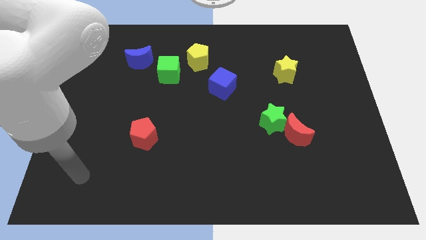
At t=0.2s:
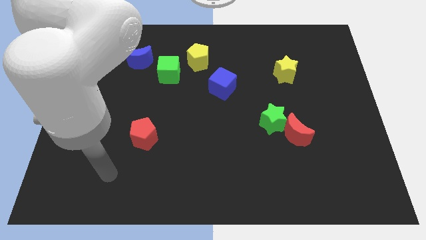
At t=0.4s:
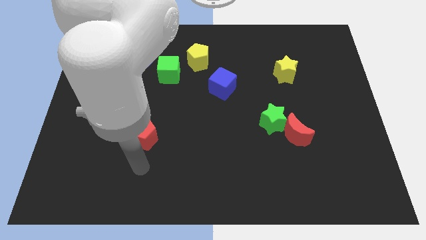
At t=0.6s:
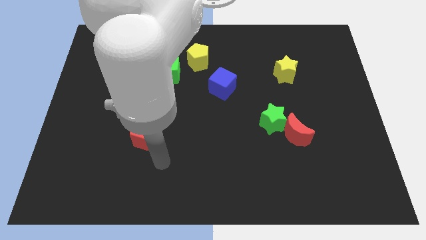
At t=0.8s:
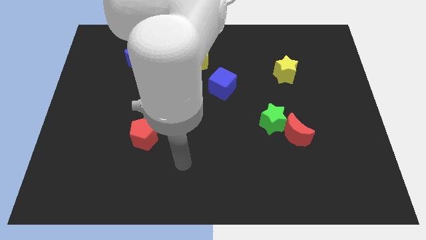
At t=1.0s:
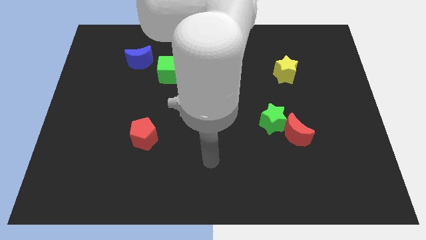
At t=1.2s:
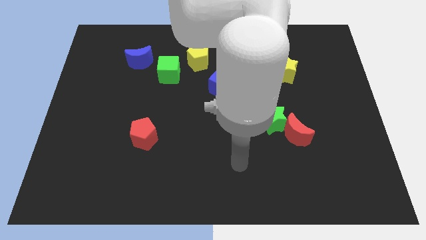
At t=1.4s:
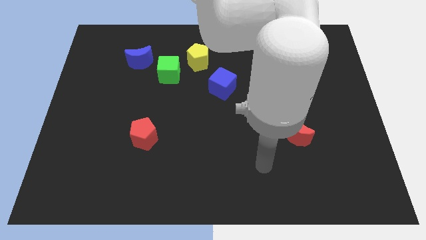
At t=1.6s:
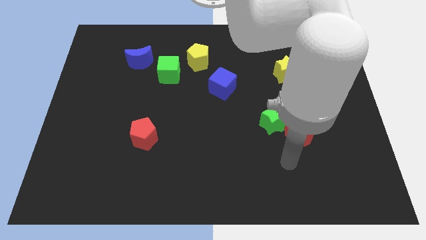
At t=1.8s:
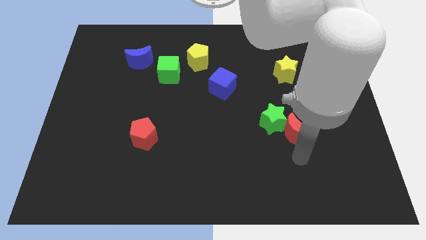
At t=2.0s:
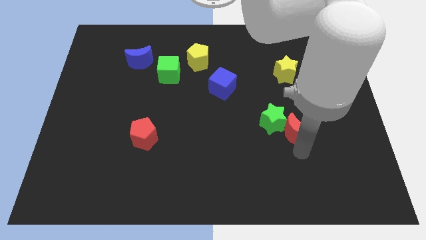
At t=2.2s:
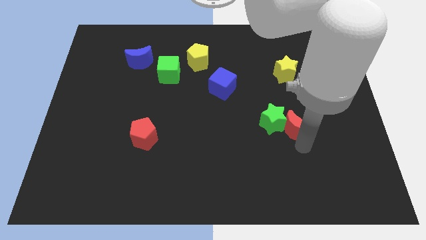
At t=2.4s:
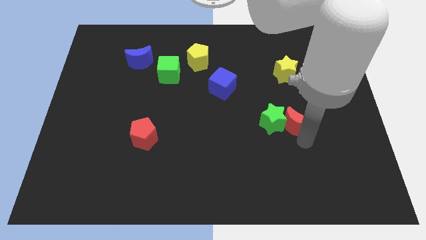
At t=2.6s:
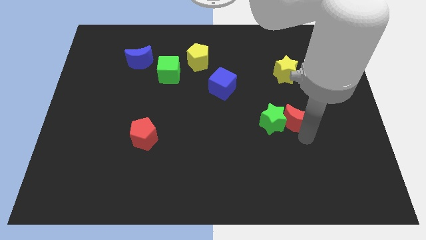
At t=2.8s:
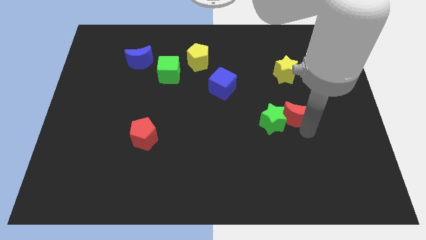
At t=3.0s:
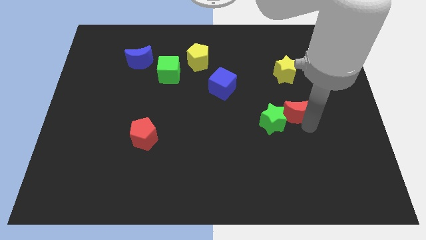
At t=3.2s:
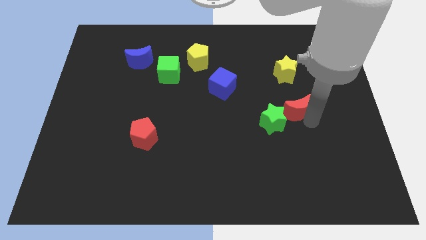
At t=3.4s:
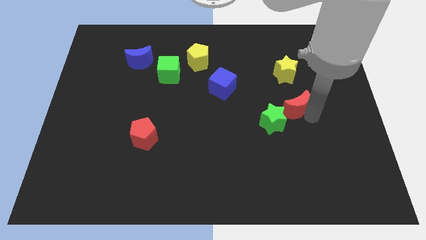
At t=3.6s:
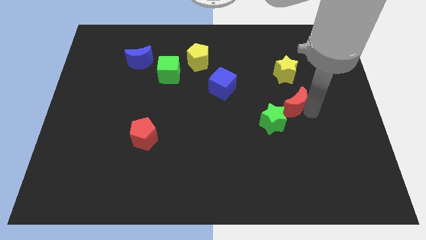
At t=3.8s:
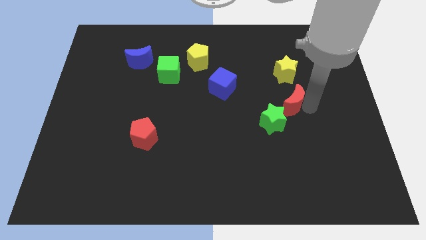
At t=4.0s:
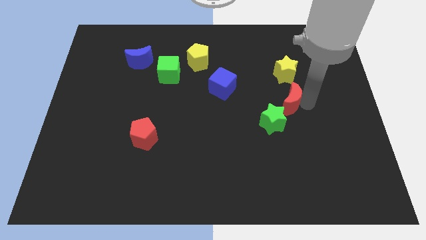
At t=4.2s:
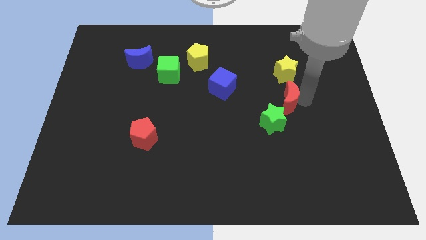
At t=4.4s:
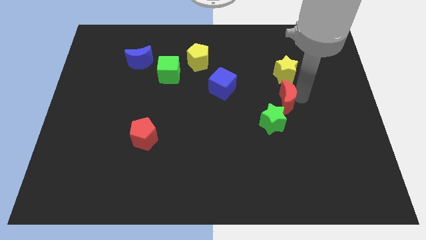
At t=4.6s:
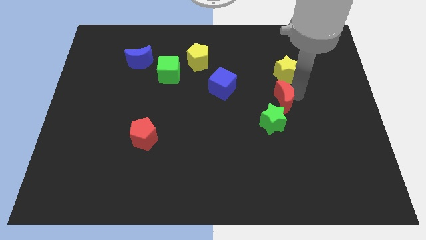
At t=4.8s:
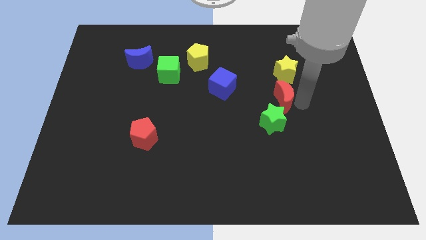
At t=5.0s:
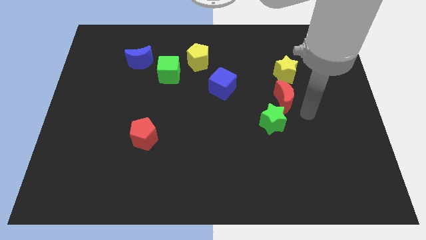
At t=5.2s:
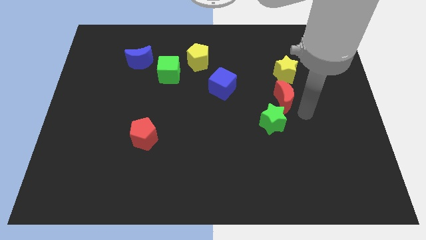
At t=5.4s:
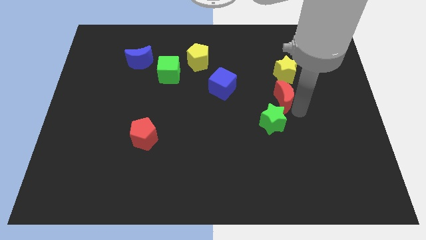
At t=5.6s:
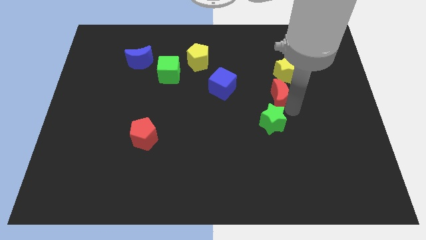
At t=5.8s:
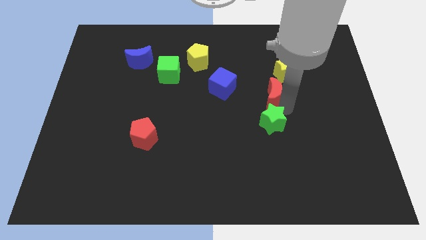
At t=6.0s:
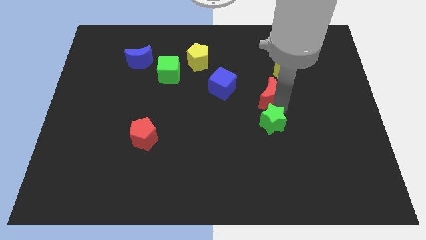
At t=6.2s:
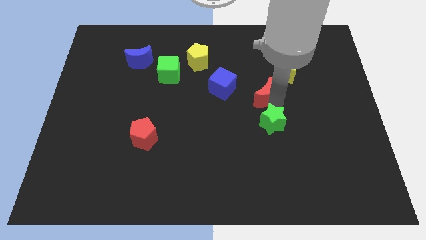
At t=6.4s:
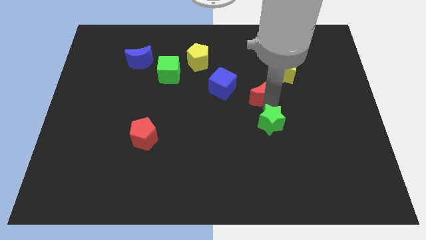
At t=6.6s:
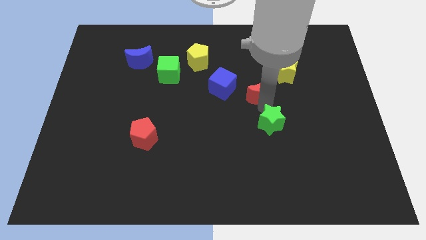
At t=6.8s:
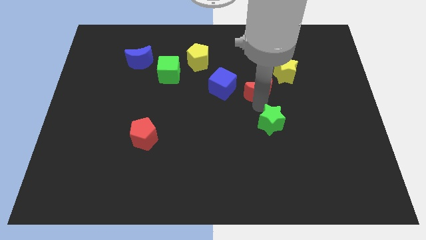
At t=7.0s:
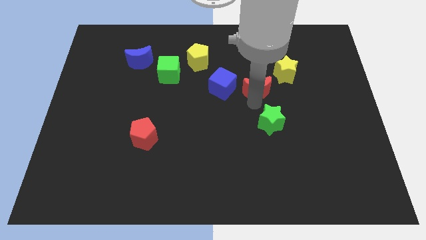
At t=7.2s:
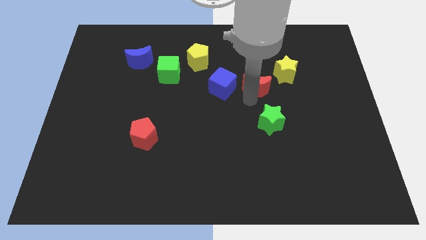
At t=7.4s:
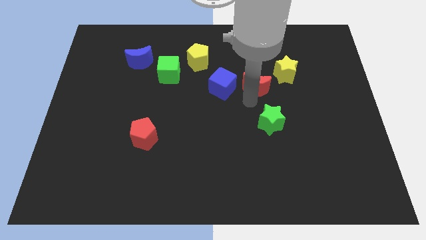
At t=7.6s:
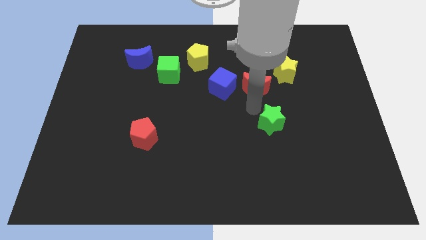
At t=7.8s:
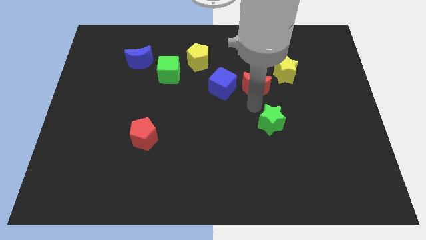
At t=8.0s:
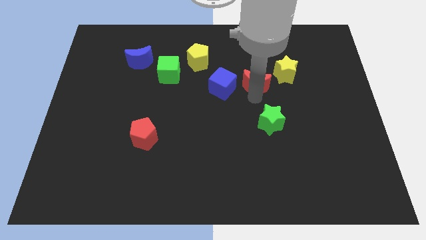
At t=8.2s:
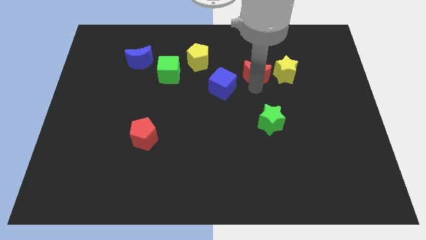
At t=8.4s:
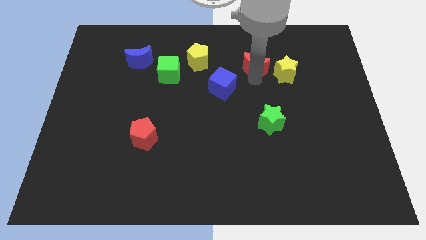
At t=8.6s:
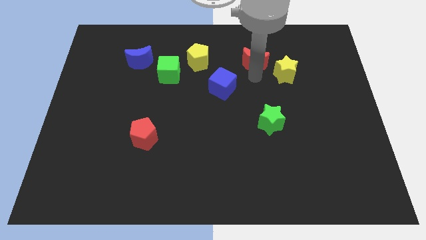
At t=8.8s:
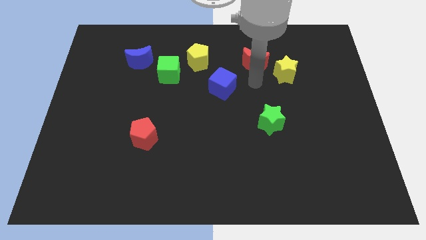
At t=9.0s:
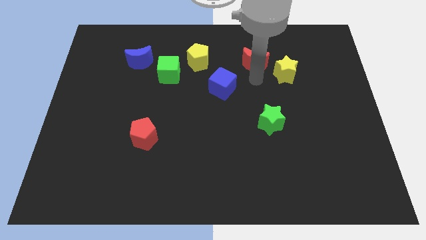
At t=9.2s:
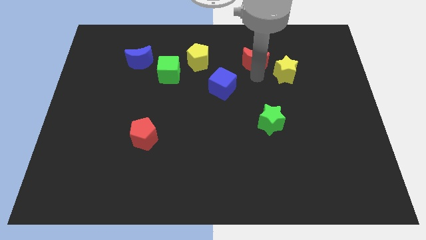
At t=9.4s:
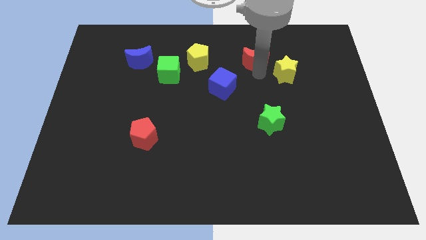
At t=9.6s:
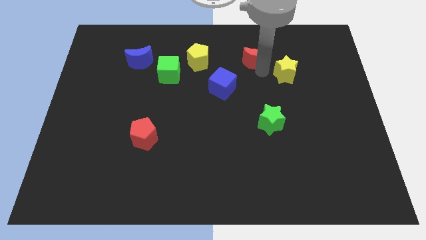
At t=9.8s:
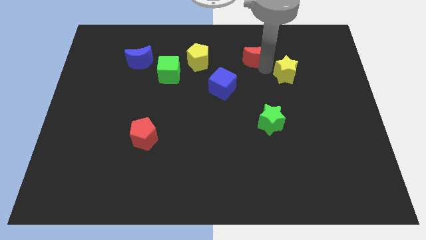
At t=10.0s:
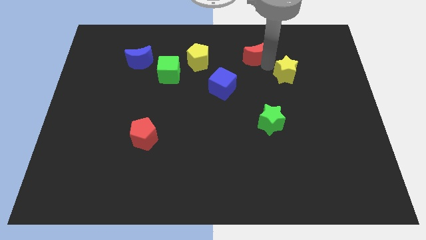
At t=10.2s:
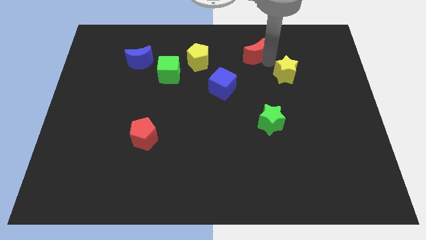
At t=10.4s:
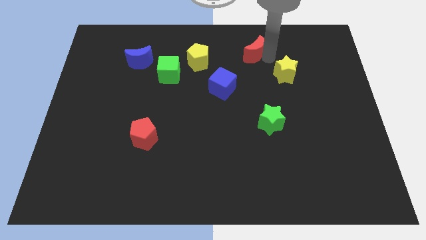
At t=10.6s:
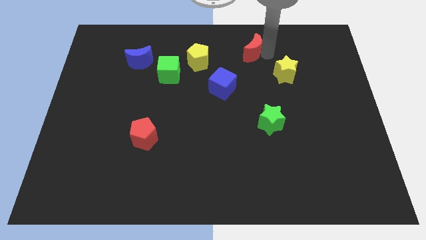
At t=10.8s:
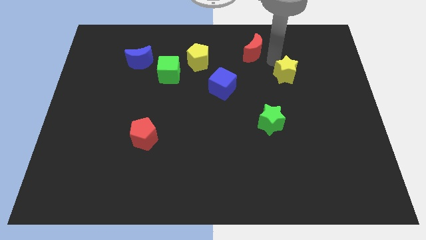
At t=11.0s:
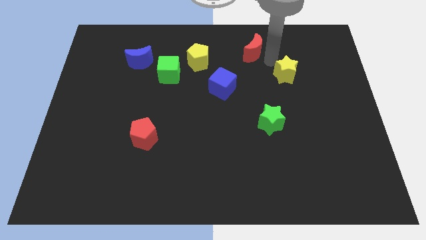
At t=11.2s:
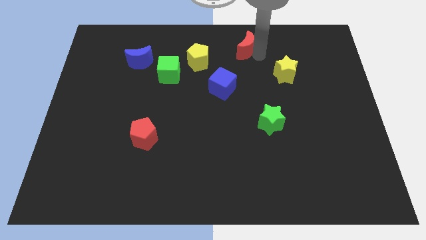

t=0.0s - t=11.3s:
put the red moon to the top side

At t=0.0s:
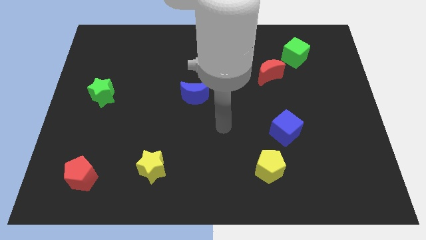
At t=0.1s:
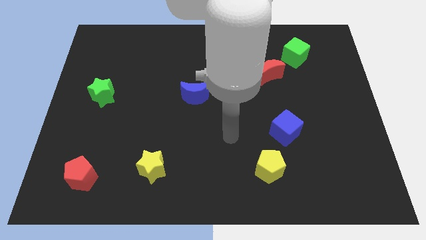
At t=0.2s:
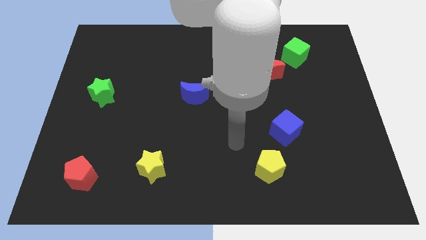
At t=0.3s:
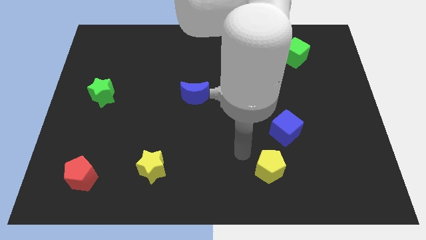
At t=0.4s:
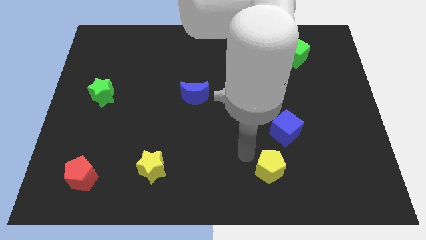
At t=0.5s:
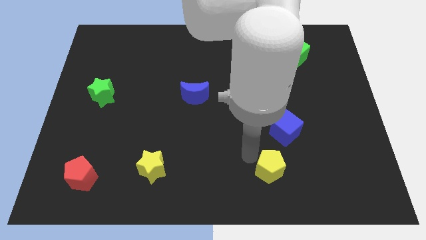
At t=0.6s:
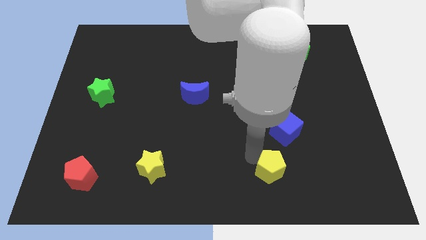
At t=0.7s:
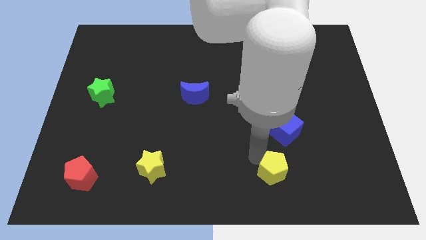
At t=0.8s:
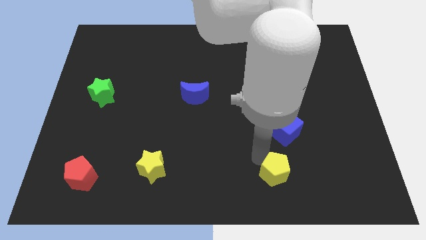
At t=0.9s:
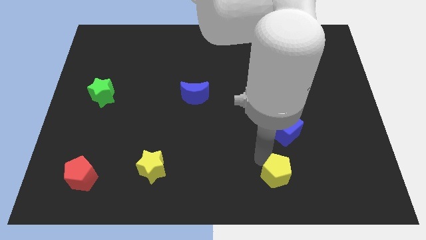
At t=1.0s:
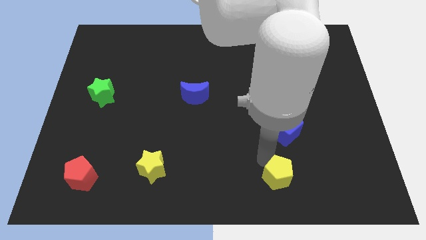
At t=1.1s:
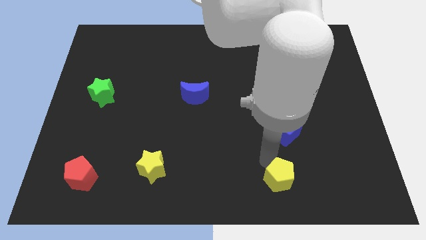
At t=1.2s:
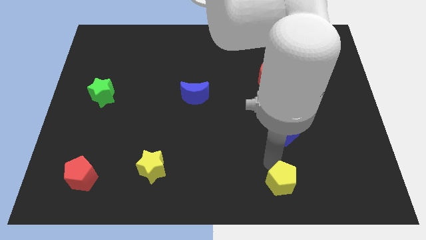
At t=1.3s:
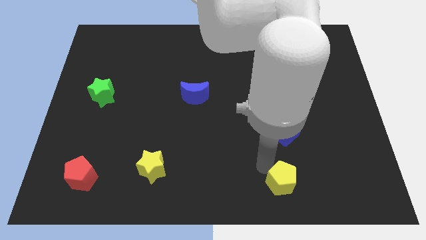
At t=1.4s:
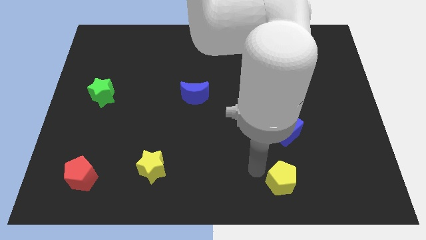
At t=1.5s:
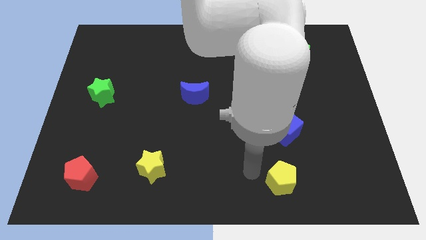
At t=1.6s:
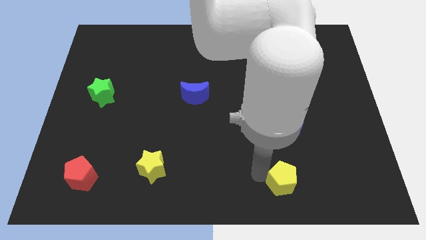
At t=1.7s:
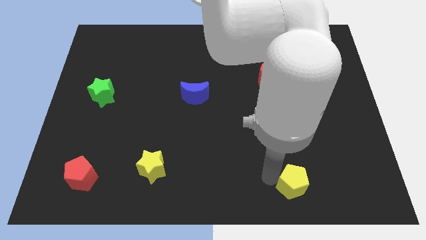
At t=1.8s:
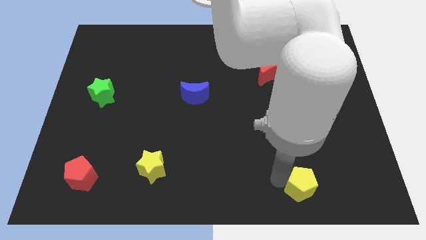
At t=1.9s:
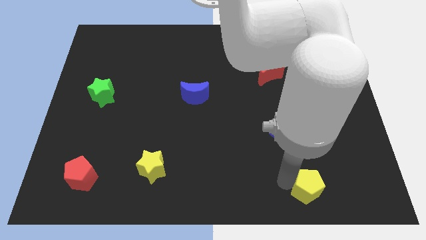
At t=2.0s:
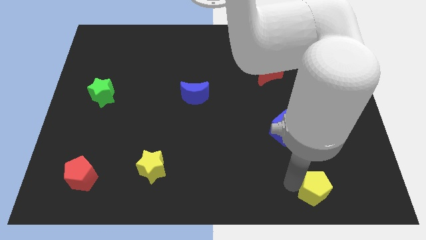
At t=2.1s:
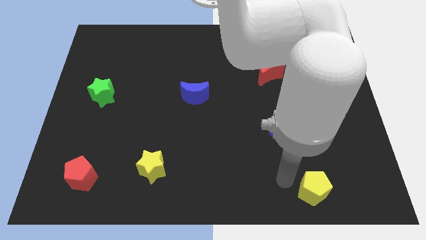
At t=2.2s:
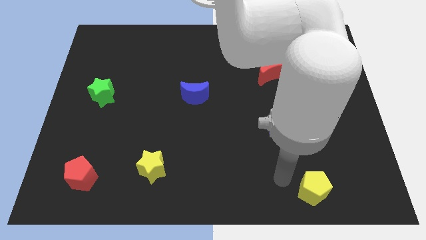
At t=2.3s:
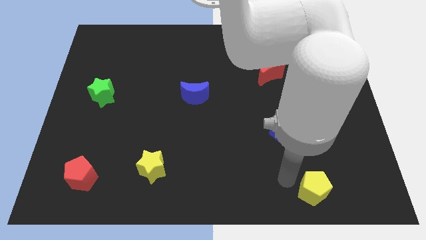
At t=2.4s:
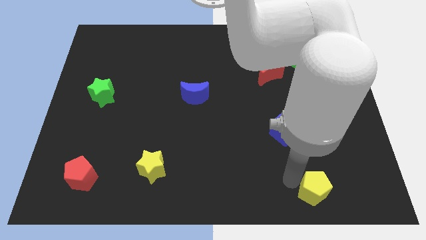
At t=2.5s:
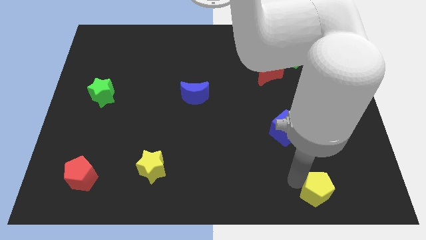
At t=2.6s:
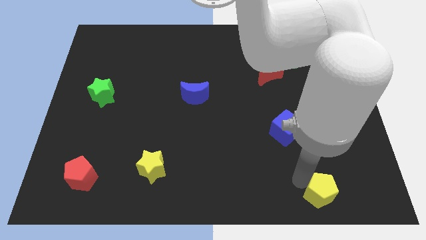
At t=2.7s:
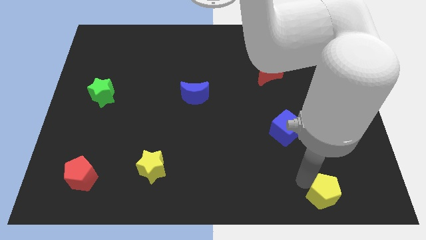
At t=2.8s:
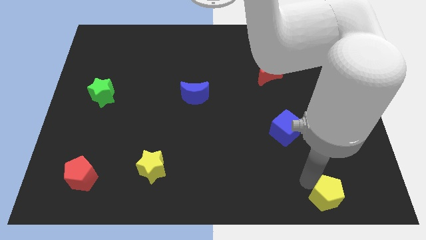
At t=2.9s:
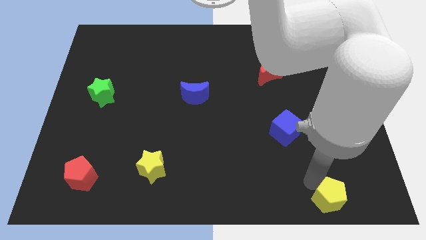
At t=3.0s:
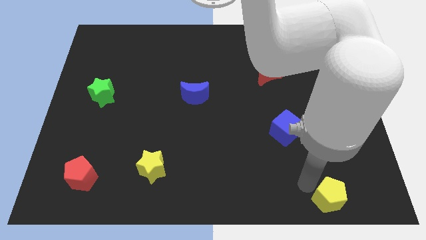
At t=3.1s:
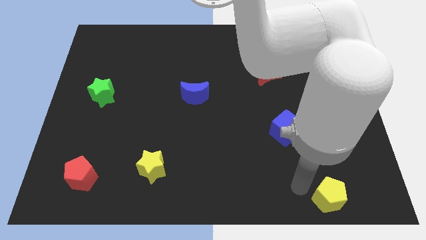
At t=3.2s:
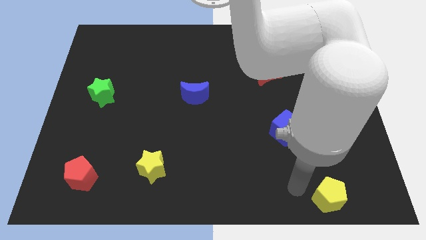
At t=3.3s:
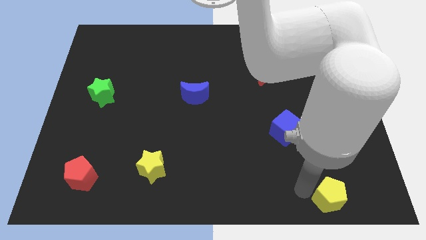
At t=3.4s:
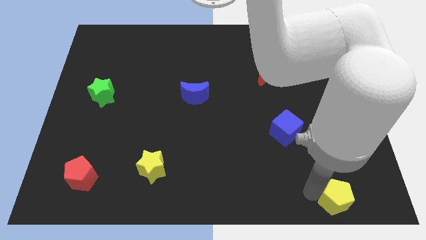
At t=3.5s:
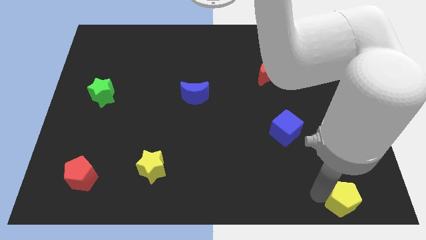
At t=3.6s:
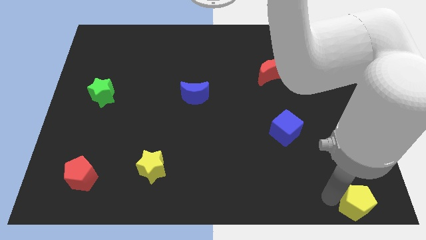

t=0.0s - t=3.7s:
push the yellow pentagon to the bottom right corner
